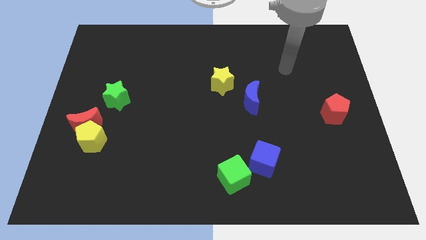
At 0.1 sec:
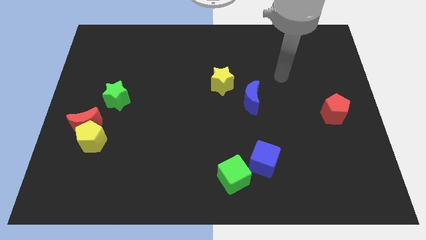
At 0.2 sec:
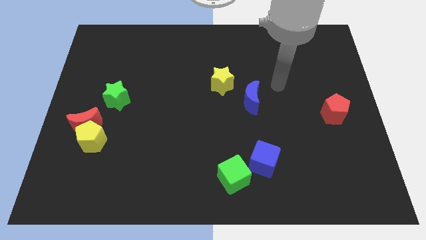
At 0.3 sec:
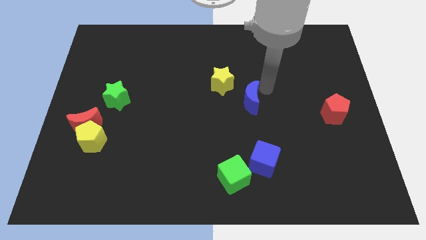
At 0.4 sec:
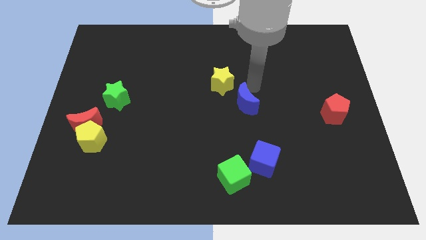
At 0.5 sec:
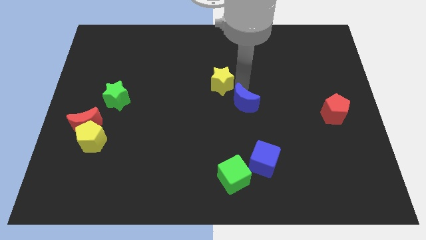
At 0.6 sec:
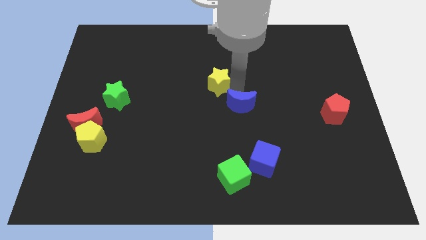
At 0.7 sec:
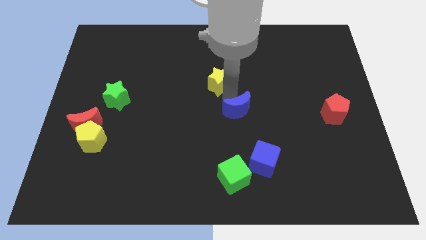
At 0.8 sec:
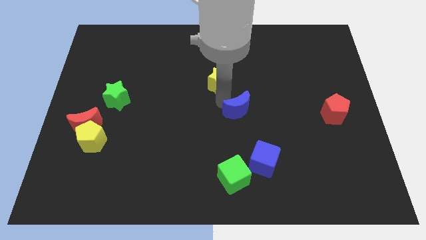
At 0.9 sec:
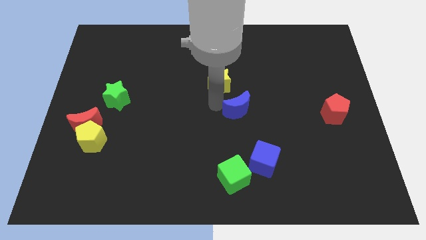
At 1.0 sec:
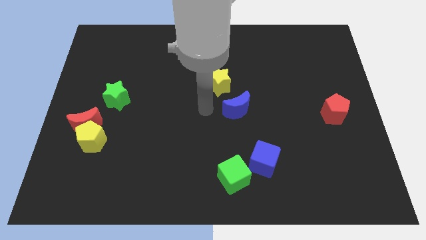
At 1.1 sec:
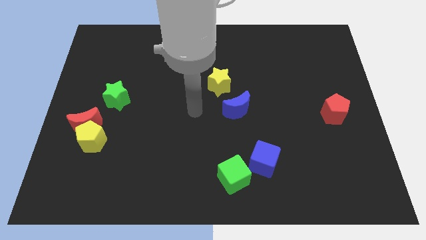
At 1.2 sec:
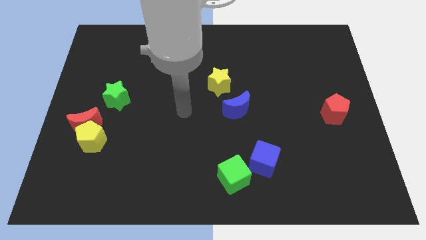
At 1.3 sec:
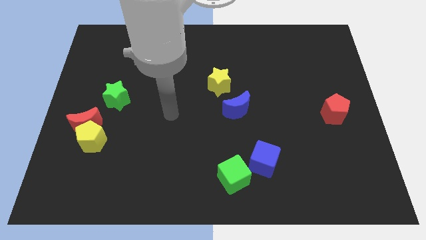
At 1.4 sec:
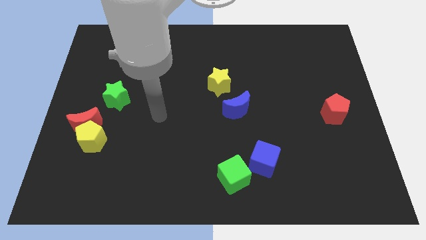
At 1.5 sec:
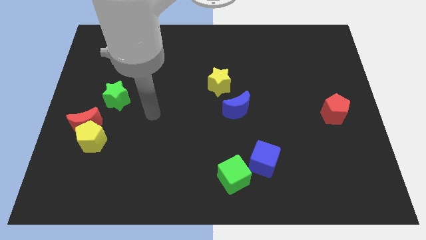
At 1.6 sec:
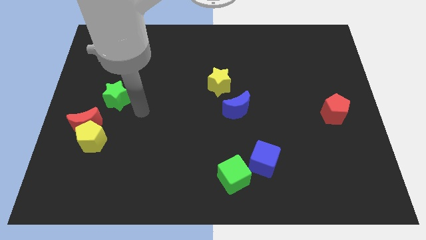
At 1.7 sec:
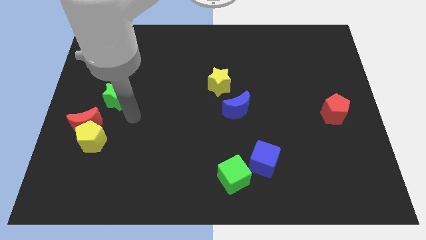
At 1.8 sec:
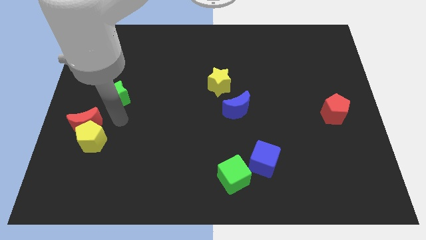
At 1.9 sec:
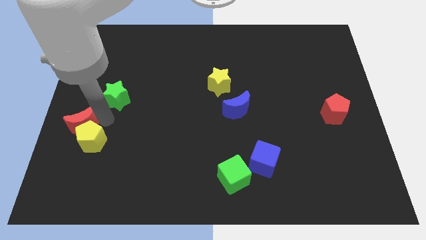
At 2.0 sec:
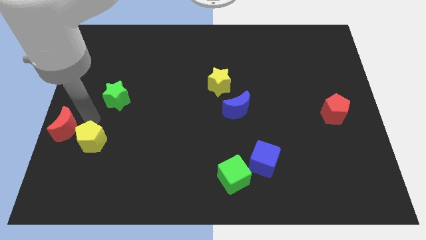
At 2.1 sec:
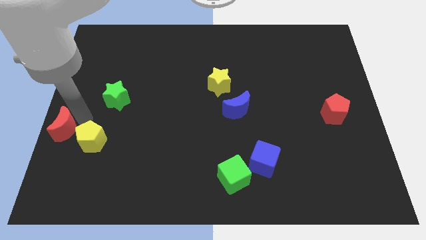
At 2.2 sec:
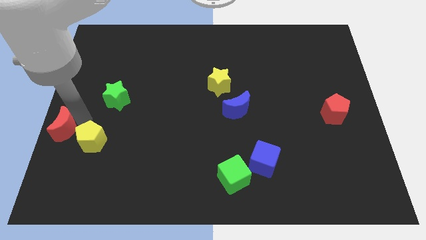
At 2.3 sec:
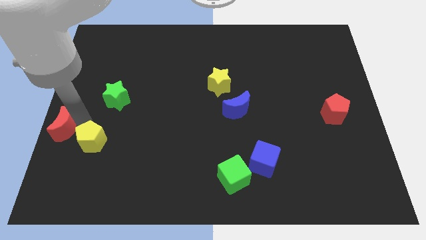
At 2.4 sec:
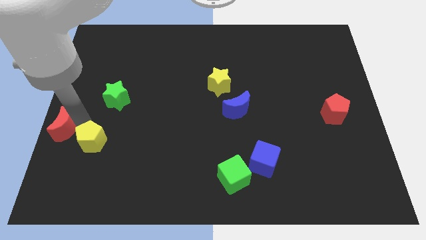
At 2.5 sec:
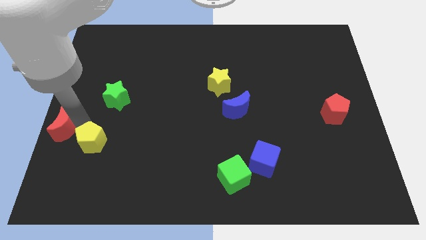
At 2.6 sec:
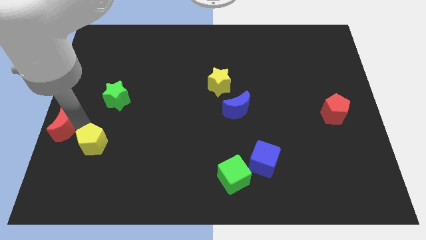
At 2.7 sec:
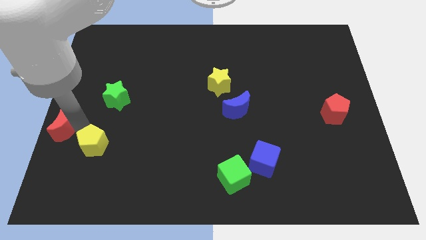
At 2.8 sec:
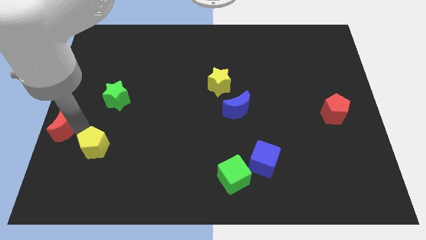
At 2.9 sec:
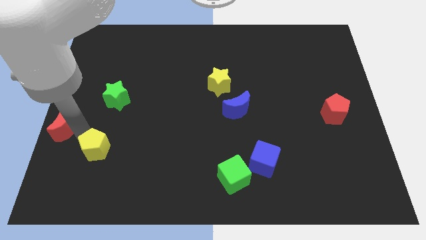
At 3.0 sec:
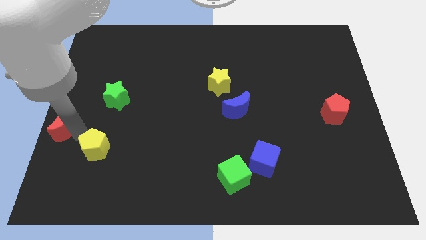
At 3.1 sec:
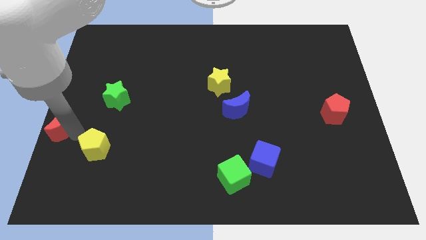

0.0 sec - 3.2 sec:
move the yellow pentagon away from the red moon

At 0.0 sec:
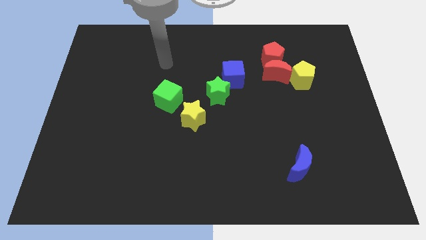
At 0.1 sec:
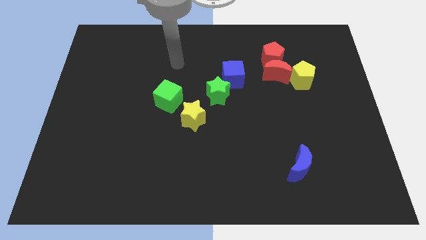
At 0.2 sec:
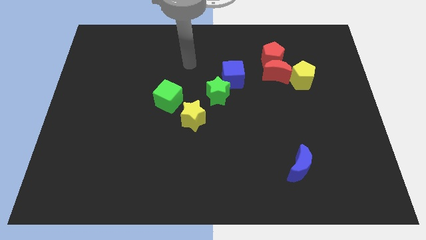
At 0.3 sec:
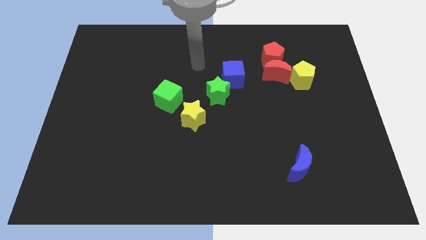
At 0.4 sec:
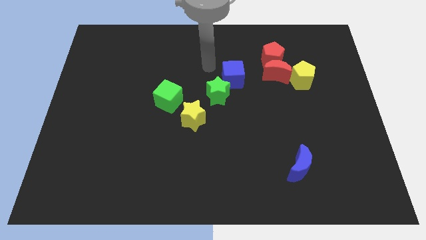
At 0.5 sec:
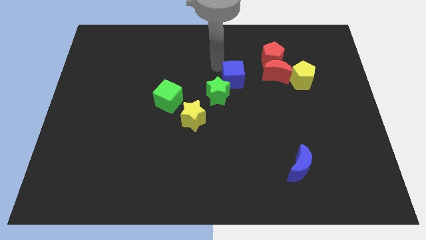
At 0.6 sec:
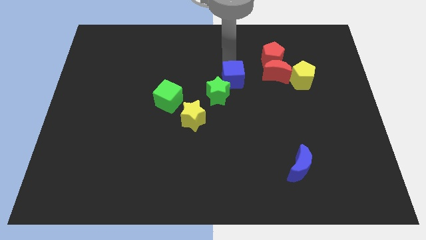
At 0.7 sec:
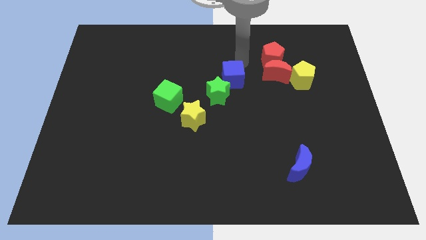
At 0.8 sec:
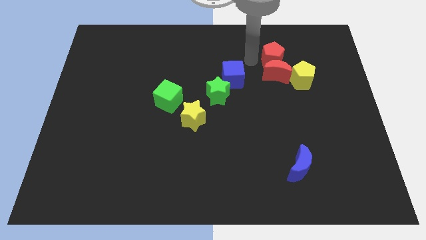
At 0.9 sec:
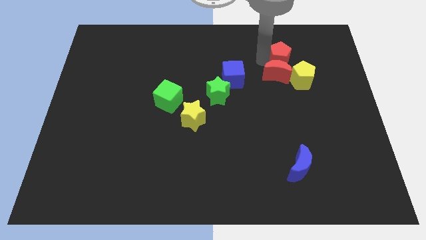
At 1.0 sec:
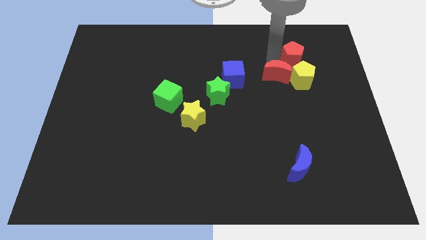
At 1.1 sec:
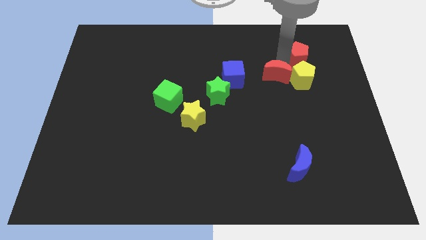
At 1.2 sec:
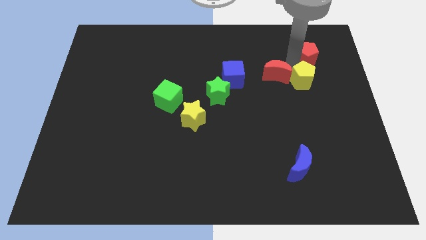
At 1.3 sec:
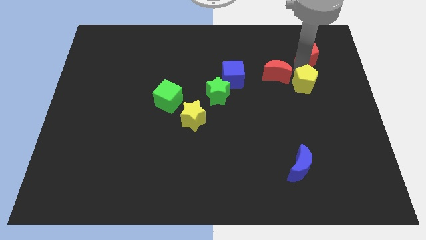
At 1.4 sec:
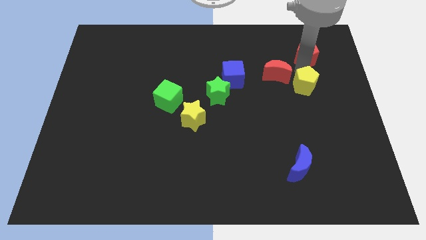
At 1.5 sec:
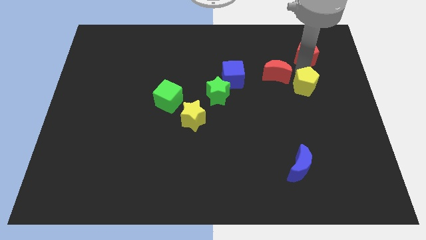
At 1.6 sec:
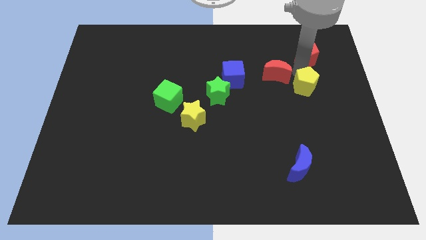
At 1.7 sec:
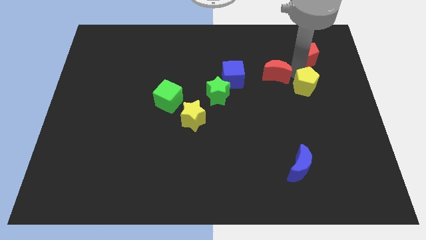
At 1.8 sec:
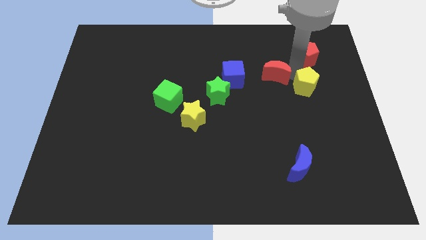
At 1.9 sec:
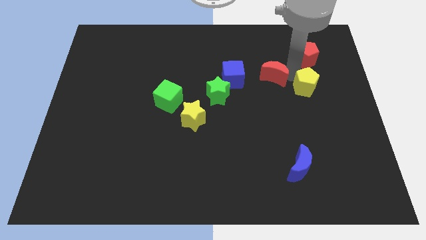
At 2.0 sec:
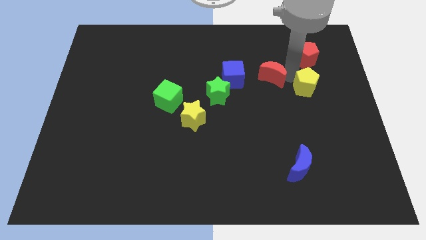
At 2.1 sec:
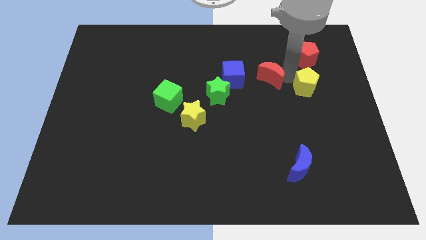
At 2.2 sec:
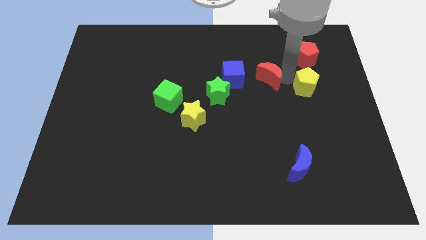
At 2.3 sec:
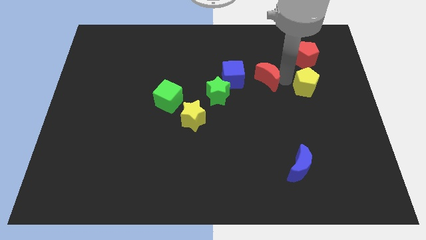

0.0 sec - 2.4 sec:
separate the red moon from the red pentagon and yellow pentagon

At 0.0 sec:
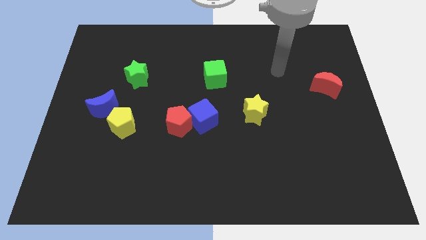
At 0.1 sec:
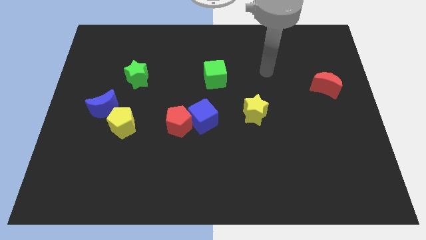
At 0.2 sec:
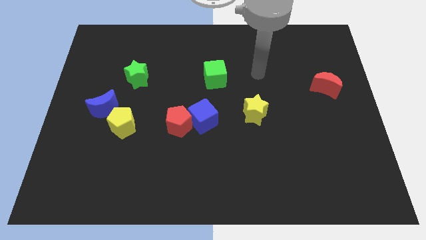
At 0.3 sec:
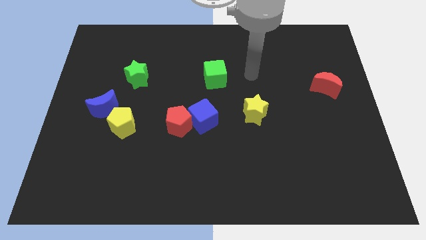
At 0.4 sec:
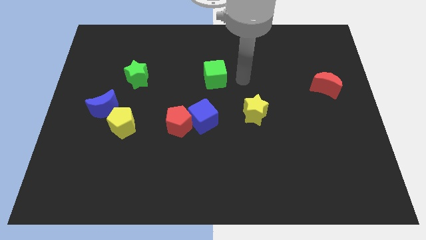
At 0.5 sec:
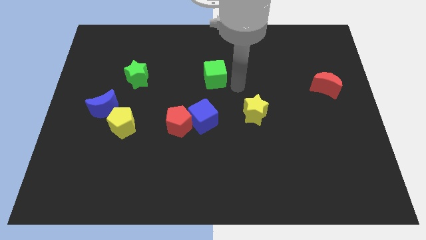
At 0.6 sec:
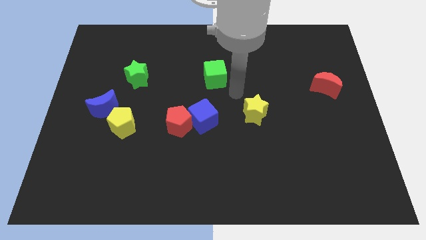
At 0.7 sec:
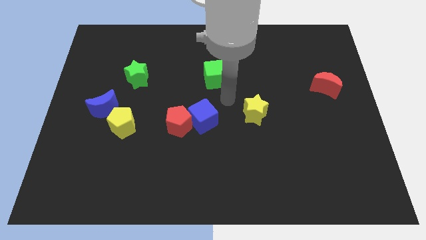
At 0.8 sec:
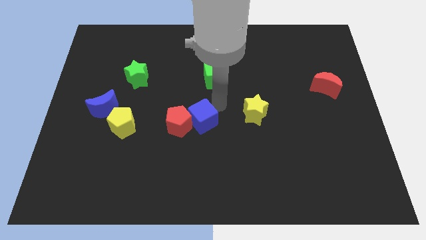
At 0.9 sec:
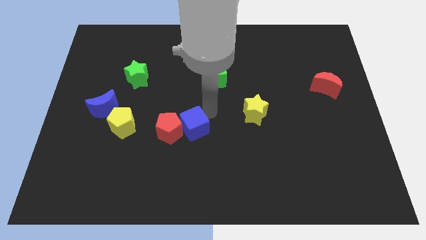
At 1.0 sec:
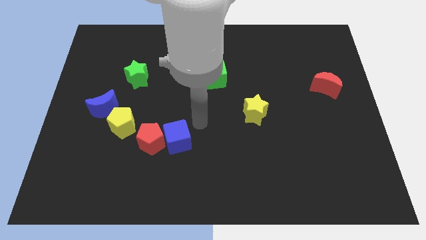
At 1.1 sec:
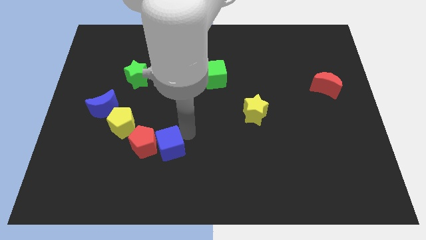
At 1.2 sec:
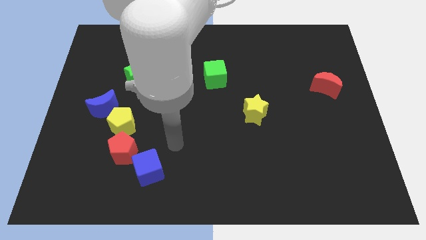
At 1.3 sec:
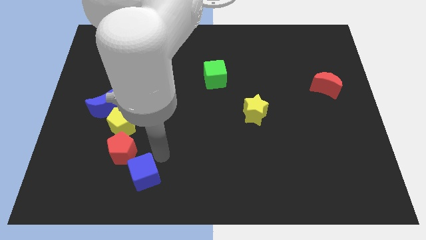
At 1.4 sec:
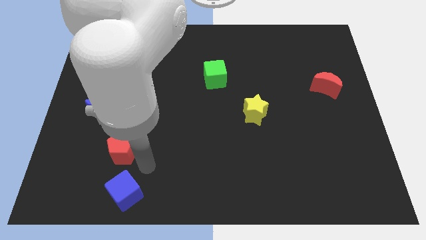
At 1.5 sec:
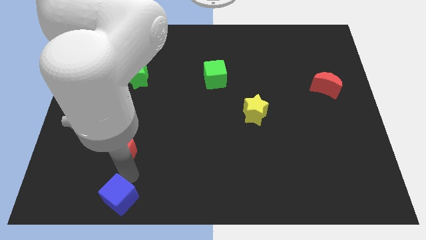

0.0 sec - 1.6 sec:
pull the red pentagon apart from the blue cube

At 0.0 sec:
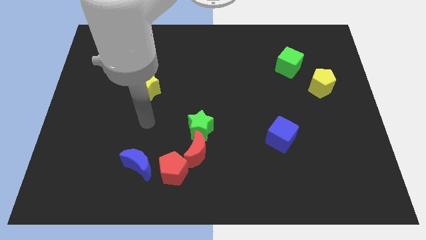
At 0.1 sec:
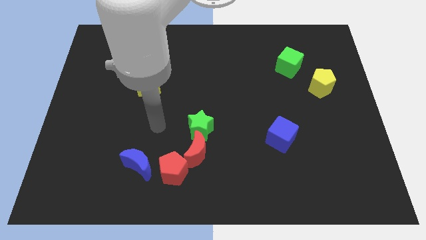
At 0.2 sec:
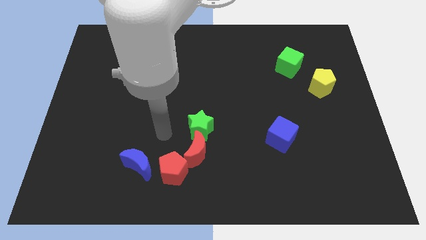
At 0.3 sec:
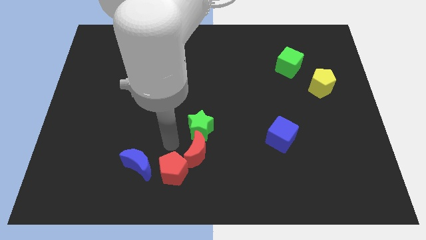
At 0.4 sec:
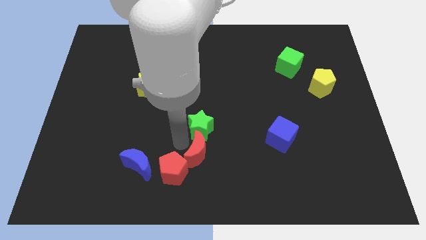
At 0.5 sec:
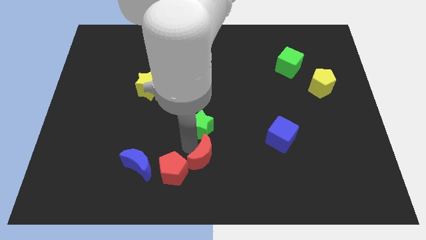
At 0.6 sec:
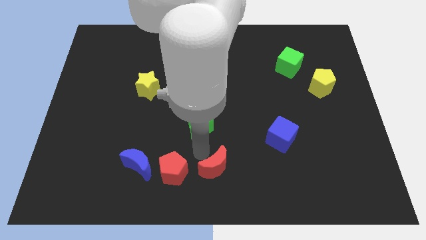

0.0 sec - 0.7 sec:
move the green star away from the red moon

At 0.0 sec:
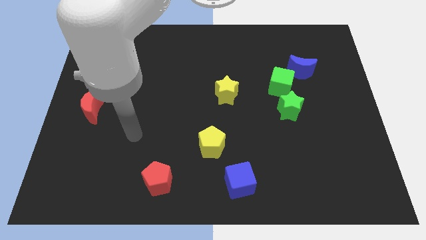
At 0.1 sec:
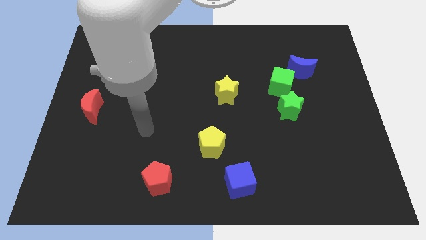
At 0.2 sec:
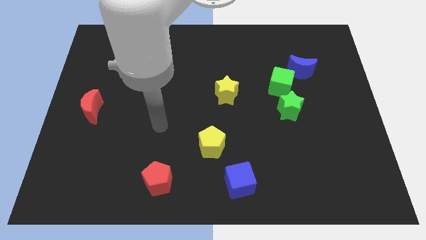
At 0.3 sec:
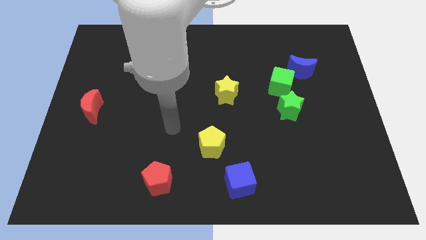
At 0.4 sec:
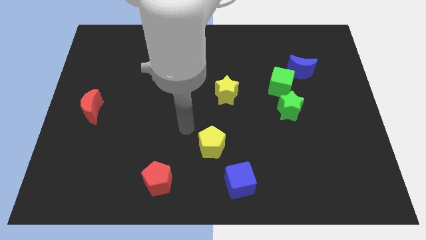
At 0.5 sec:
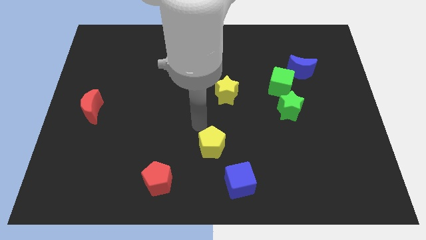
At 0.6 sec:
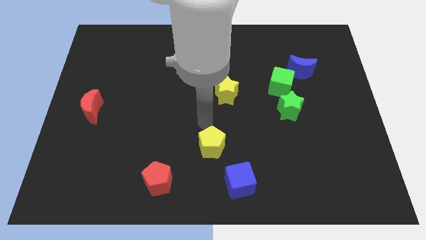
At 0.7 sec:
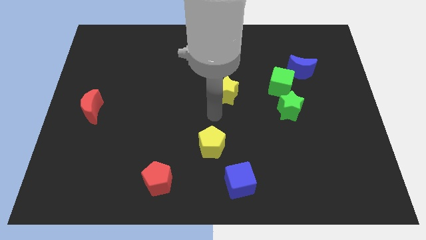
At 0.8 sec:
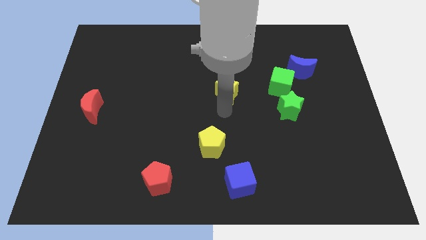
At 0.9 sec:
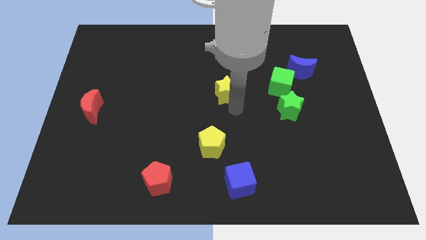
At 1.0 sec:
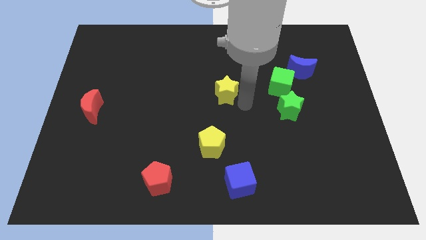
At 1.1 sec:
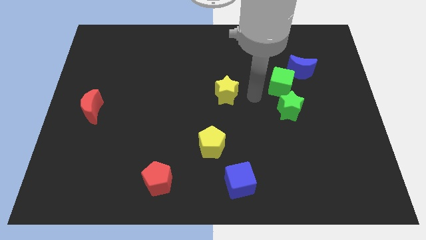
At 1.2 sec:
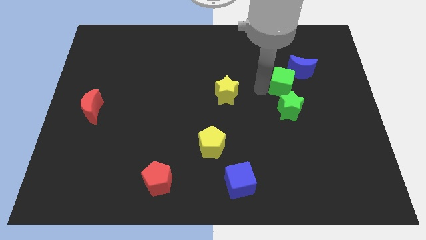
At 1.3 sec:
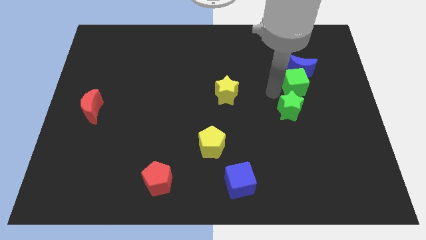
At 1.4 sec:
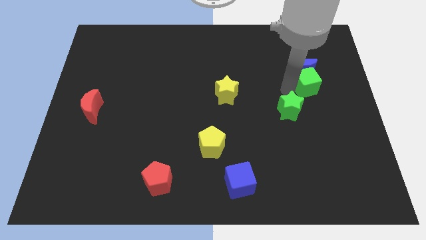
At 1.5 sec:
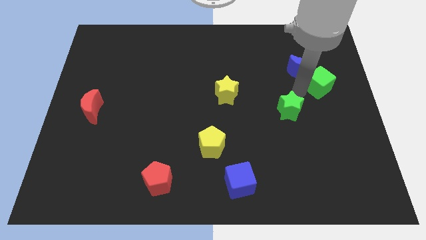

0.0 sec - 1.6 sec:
separate the green star from the green cube
